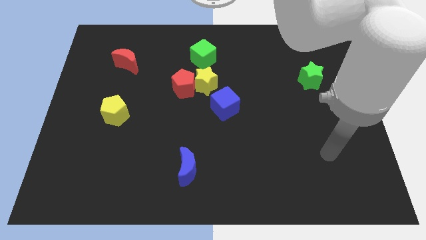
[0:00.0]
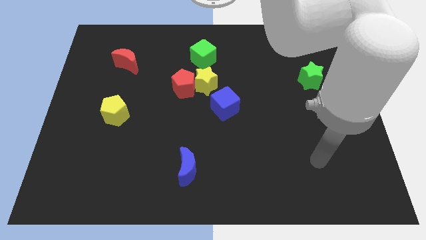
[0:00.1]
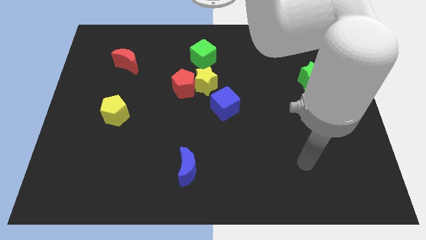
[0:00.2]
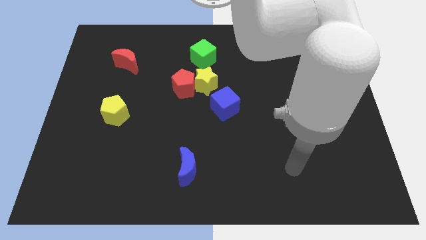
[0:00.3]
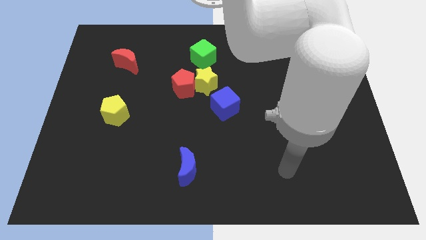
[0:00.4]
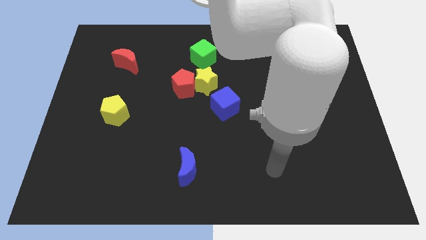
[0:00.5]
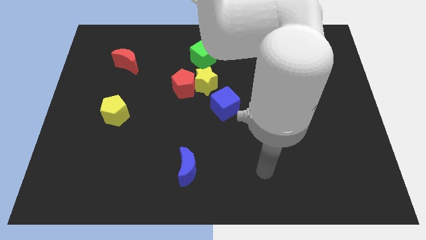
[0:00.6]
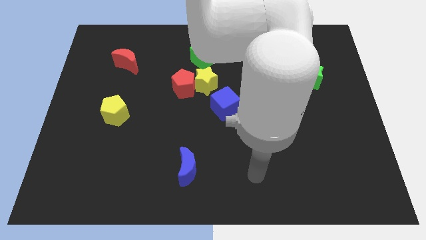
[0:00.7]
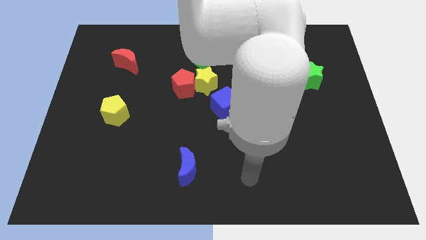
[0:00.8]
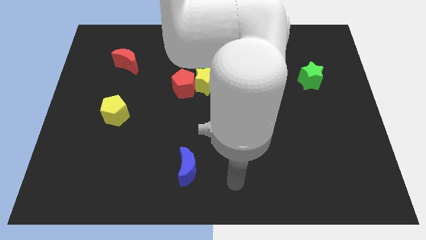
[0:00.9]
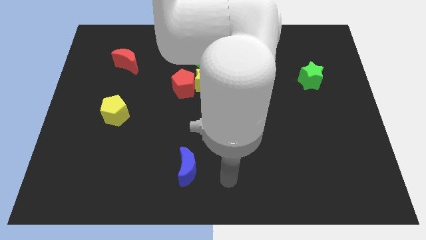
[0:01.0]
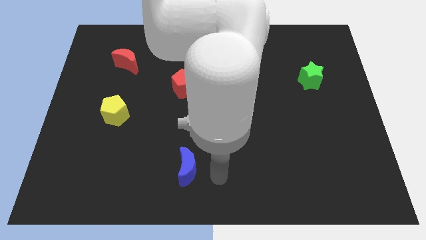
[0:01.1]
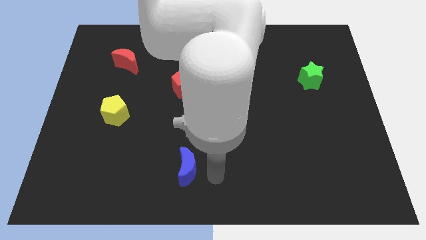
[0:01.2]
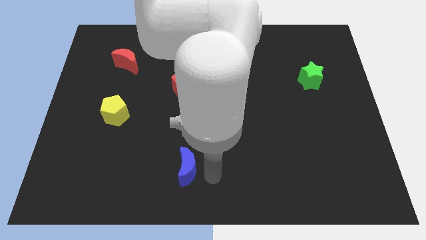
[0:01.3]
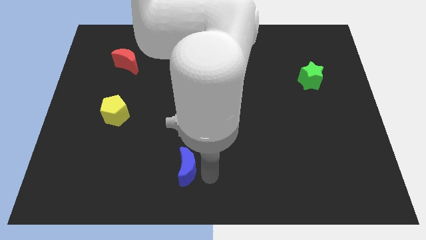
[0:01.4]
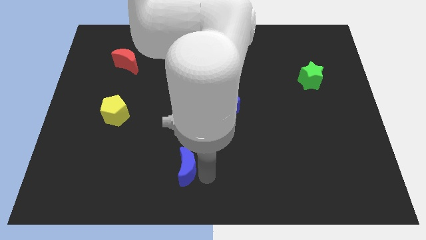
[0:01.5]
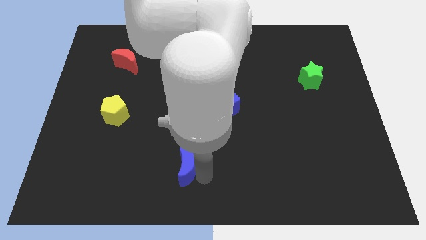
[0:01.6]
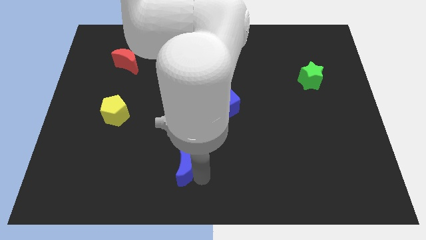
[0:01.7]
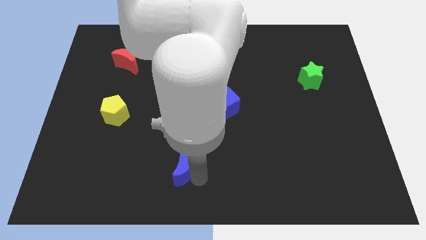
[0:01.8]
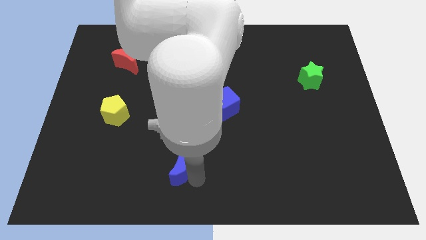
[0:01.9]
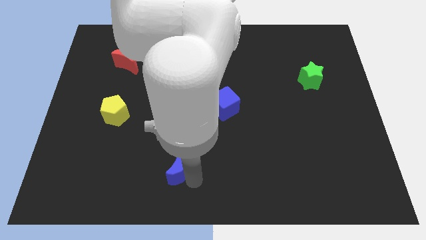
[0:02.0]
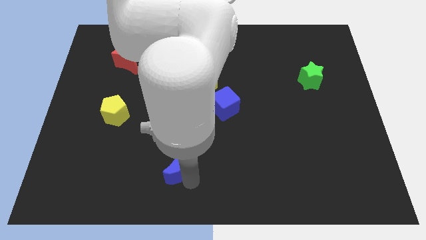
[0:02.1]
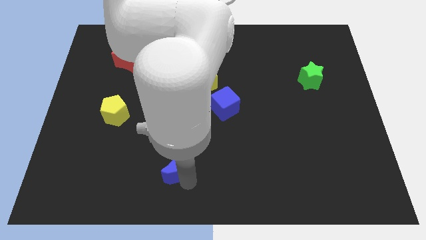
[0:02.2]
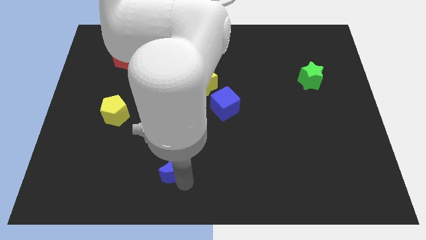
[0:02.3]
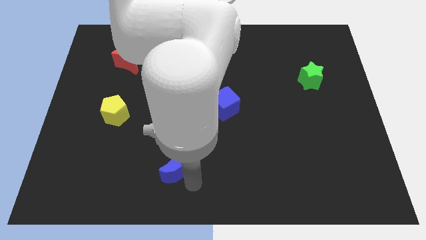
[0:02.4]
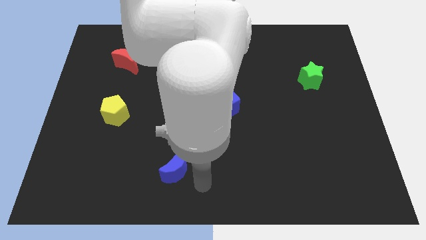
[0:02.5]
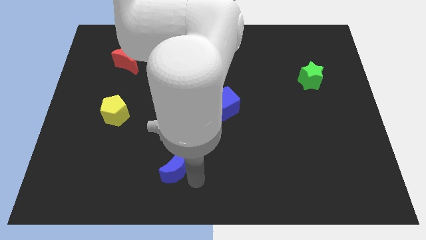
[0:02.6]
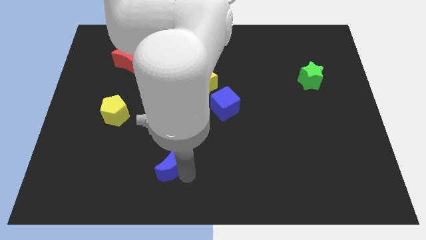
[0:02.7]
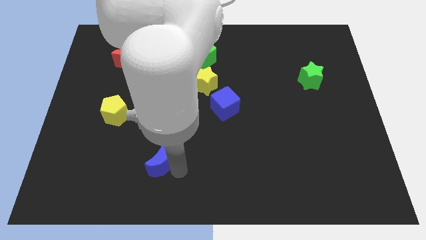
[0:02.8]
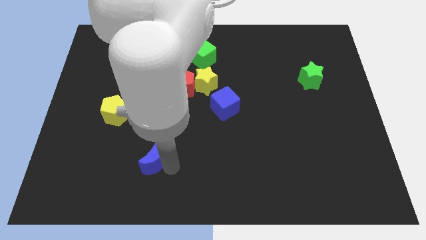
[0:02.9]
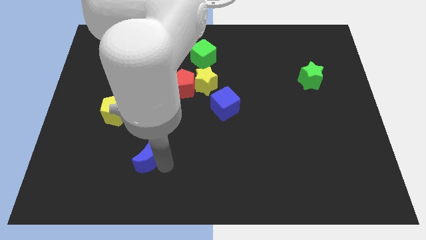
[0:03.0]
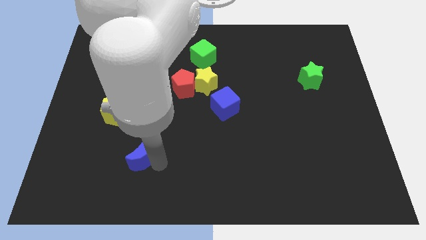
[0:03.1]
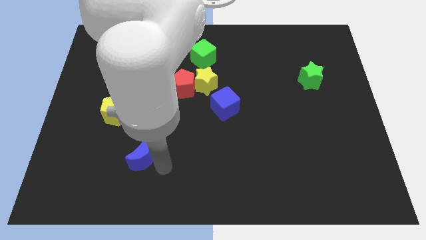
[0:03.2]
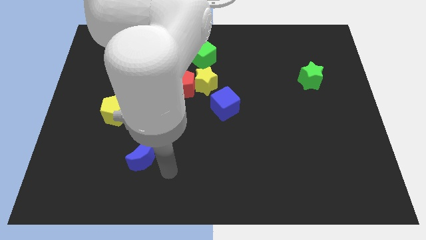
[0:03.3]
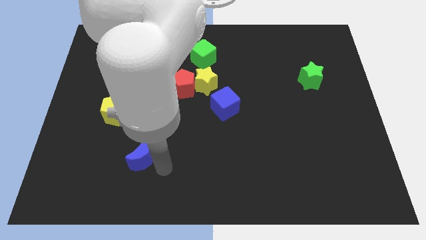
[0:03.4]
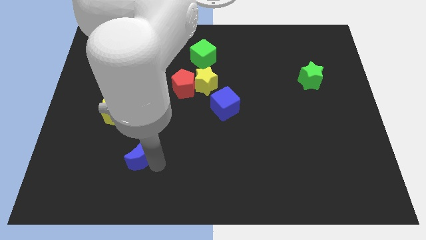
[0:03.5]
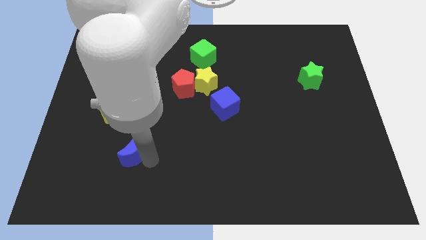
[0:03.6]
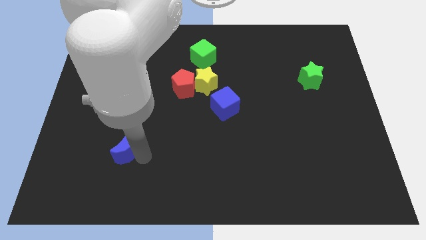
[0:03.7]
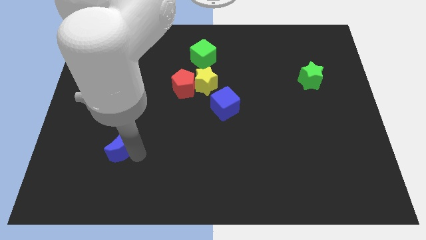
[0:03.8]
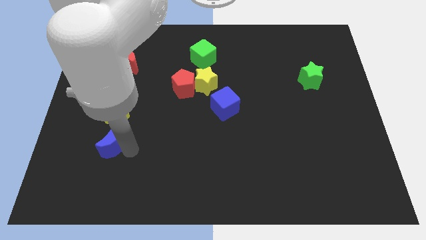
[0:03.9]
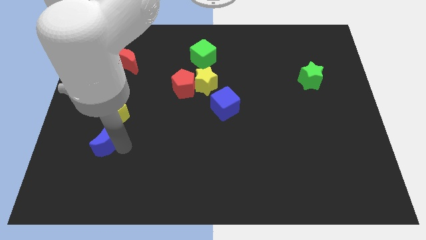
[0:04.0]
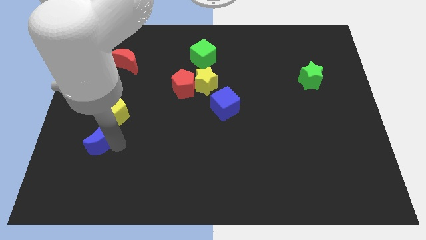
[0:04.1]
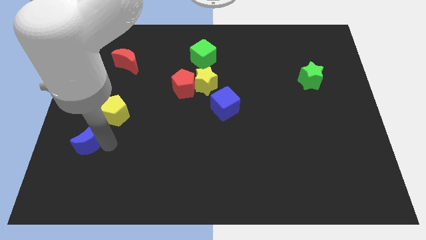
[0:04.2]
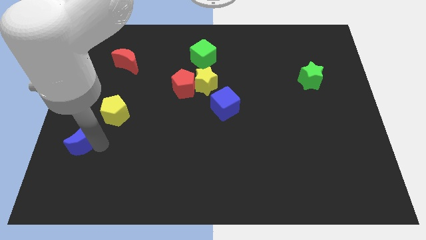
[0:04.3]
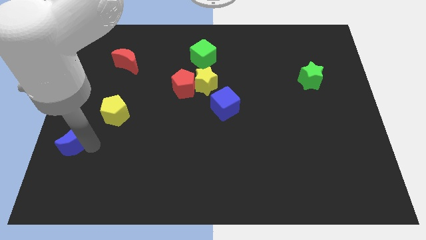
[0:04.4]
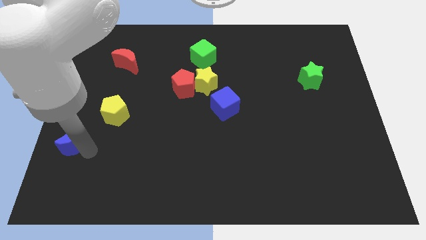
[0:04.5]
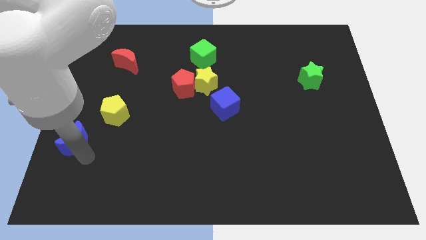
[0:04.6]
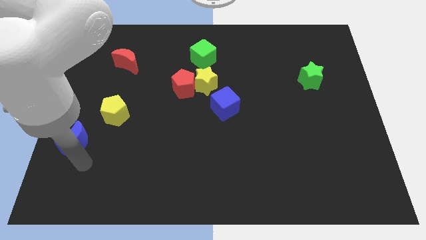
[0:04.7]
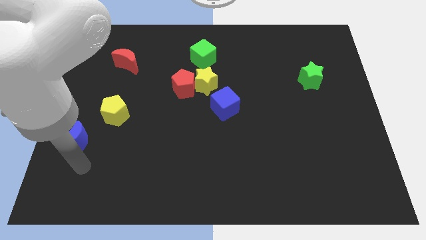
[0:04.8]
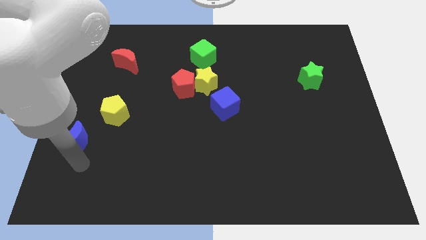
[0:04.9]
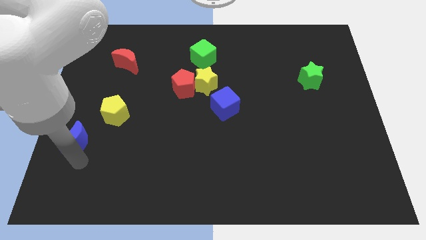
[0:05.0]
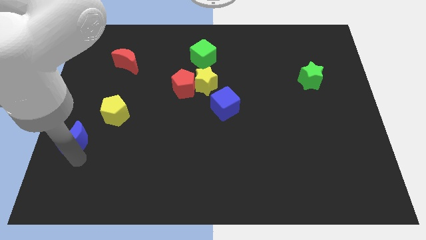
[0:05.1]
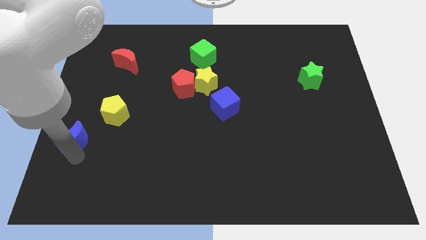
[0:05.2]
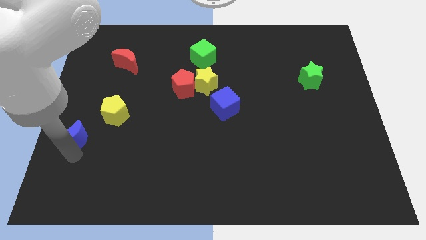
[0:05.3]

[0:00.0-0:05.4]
push the blue moon to the left side of the board

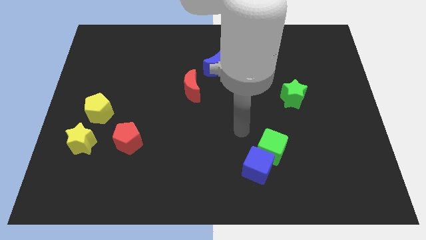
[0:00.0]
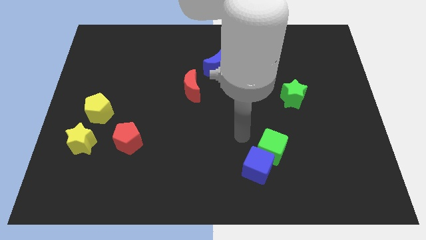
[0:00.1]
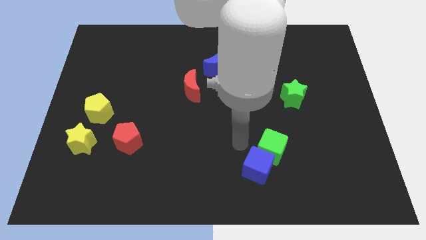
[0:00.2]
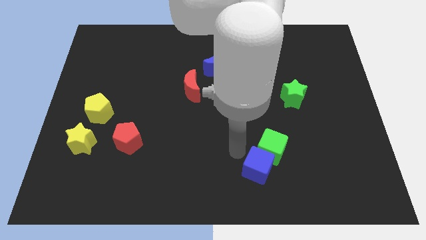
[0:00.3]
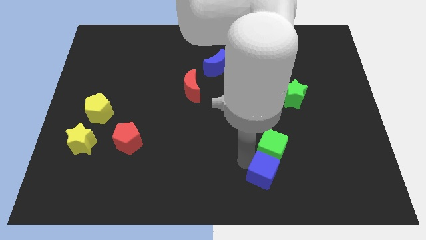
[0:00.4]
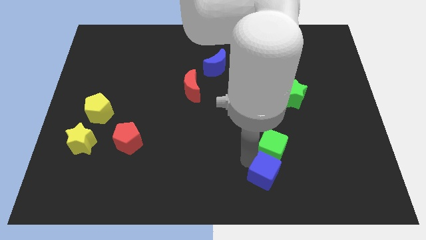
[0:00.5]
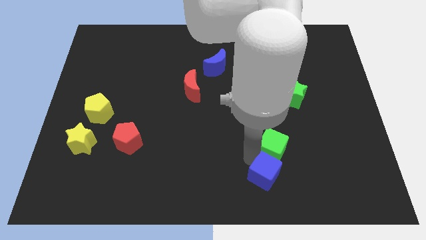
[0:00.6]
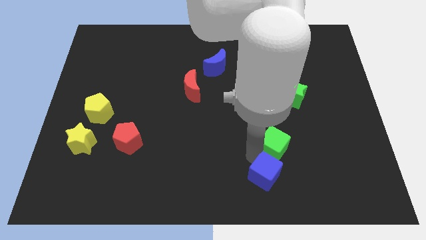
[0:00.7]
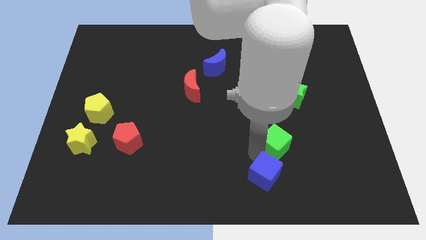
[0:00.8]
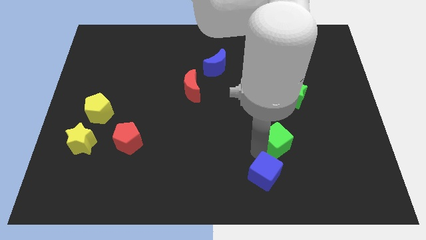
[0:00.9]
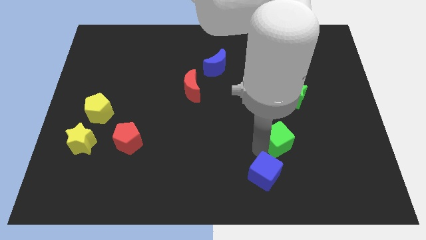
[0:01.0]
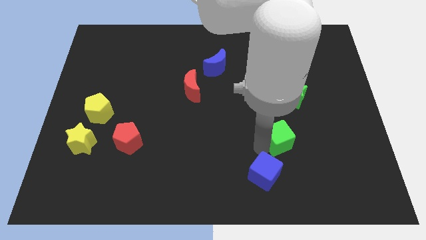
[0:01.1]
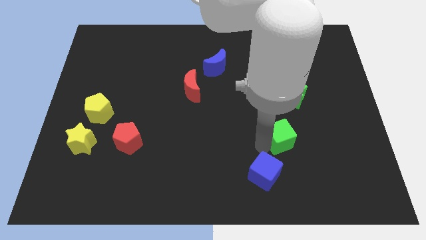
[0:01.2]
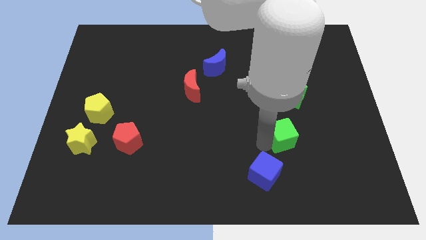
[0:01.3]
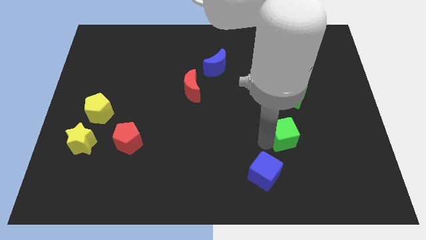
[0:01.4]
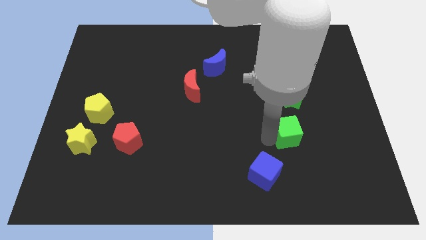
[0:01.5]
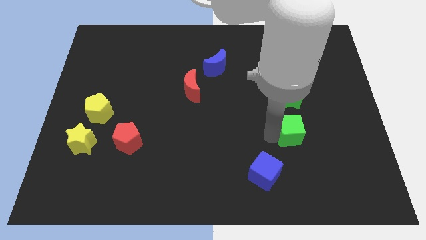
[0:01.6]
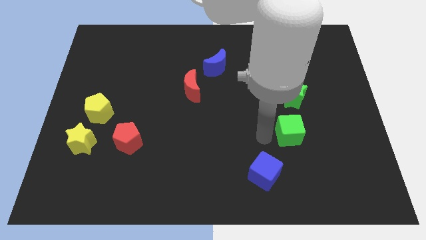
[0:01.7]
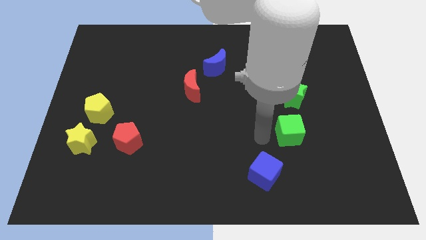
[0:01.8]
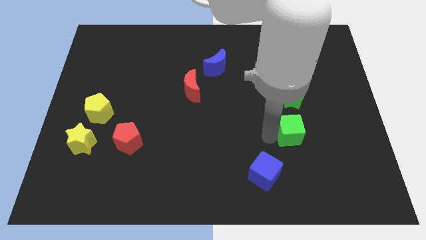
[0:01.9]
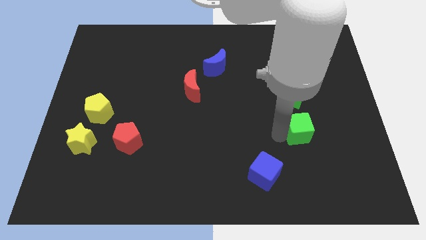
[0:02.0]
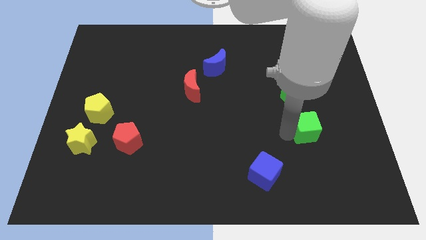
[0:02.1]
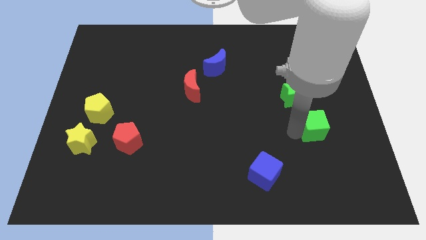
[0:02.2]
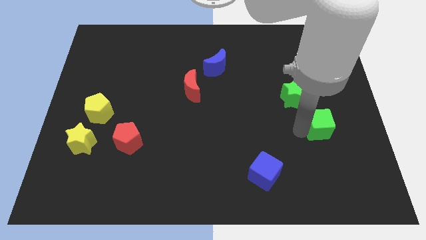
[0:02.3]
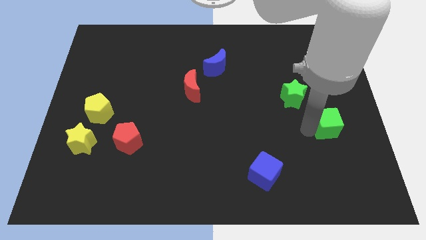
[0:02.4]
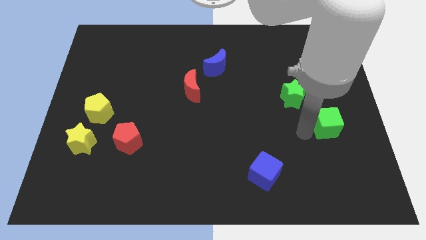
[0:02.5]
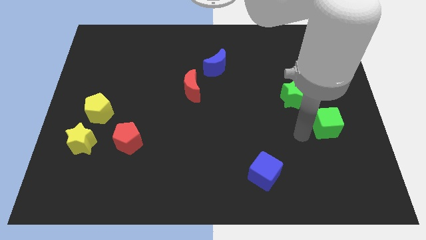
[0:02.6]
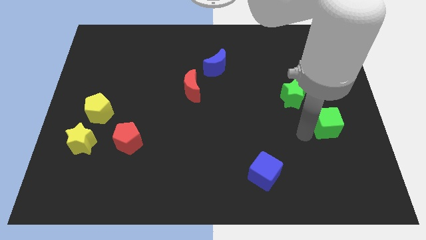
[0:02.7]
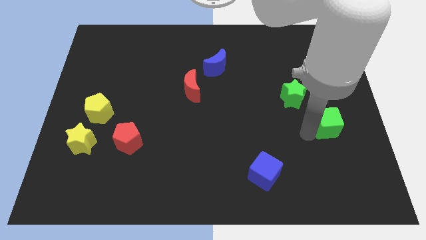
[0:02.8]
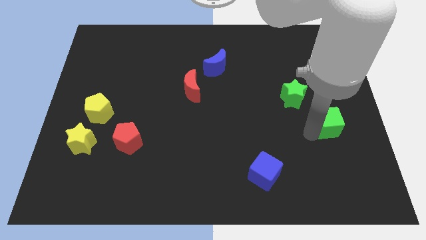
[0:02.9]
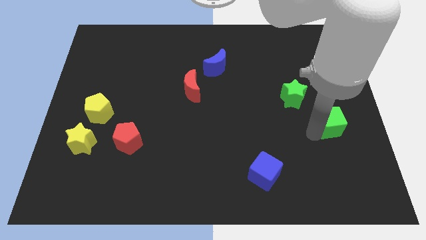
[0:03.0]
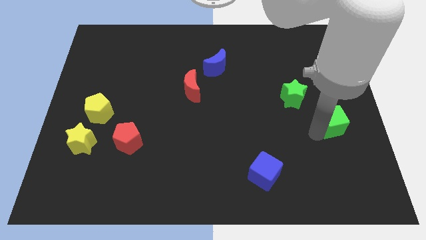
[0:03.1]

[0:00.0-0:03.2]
put the green cube to the right side
